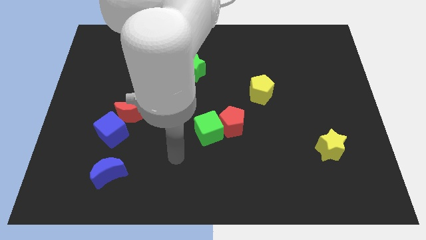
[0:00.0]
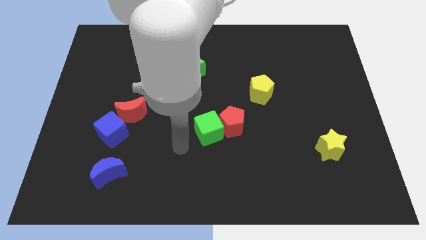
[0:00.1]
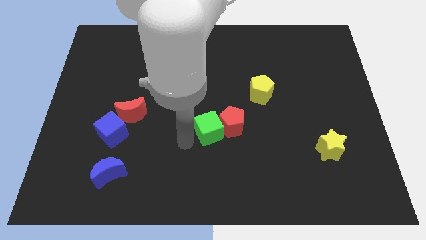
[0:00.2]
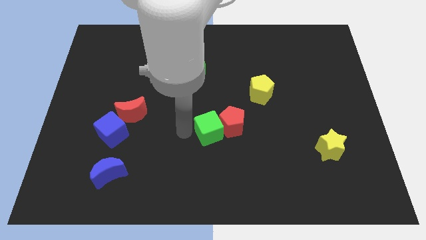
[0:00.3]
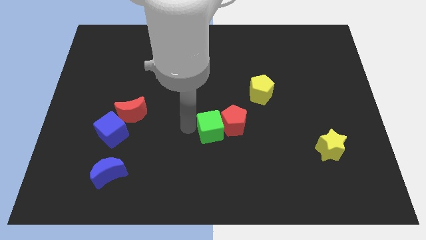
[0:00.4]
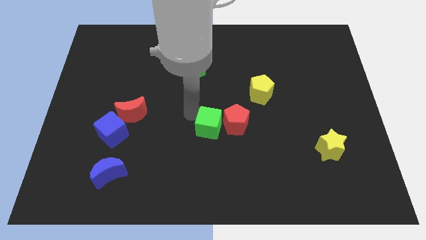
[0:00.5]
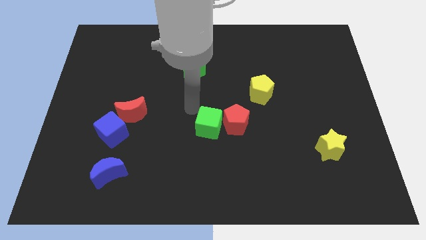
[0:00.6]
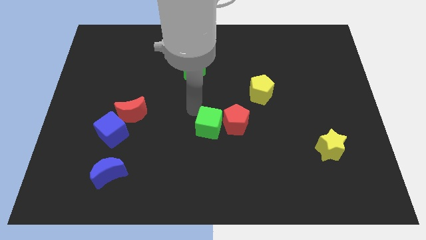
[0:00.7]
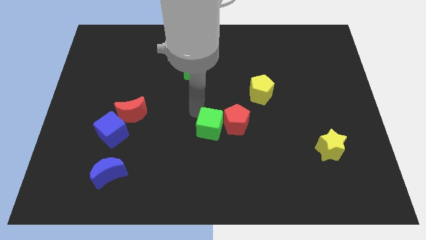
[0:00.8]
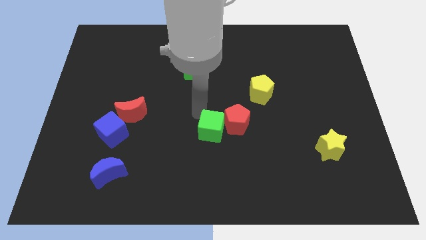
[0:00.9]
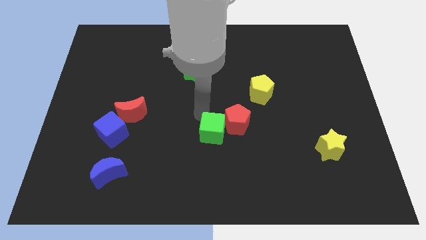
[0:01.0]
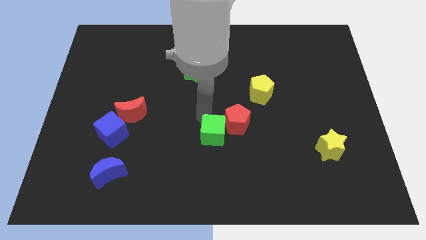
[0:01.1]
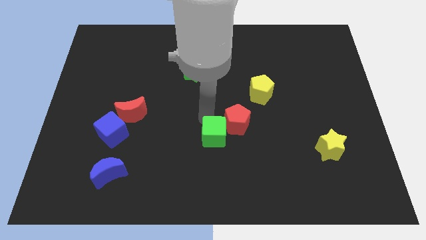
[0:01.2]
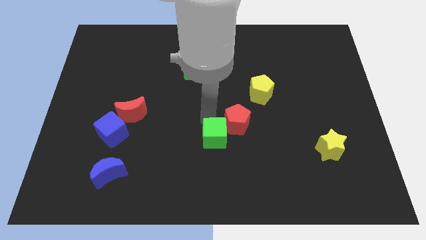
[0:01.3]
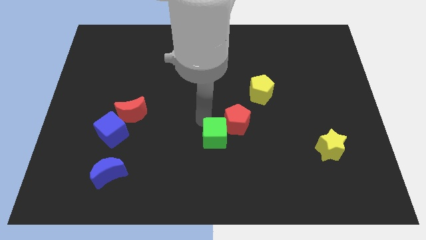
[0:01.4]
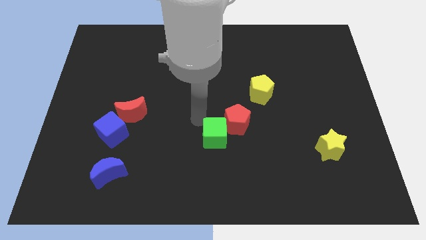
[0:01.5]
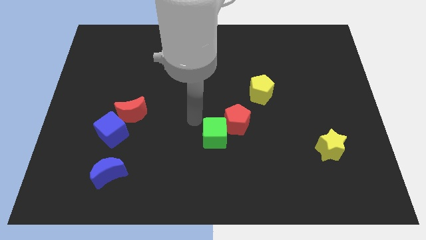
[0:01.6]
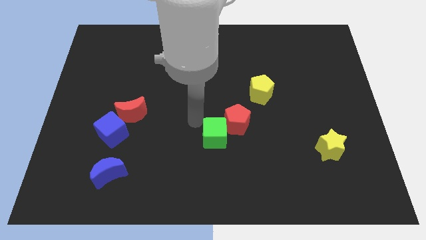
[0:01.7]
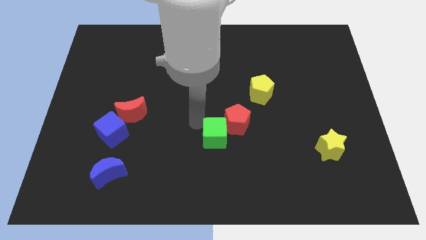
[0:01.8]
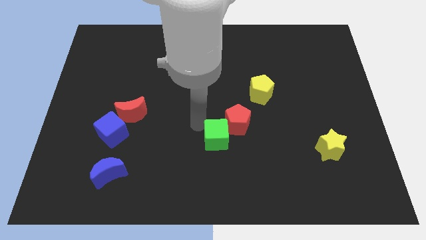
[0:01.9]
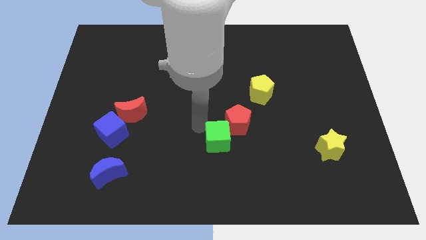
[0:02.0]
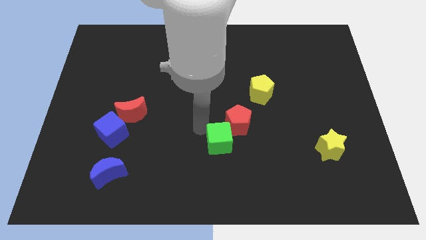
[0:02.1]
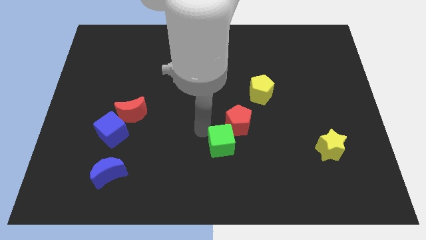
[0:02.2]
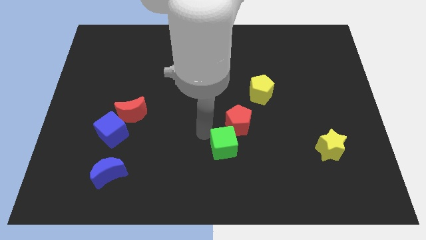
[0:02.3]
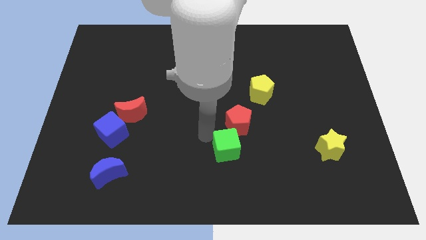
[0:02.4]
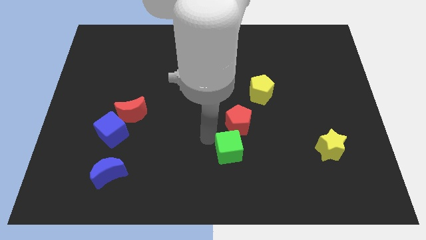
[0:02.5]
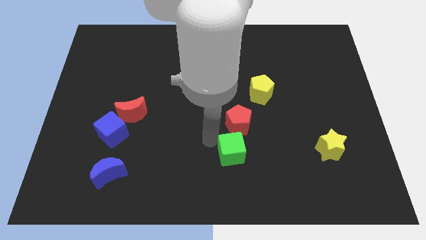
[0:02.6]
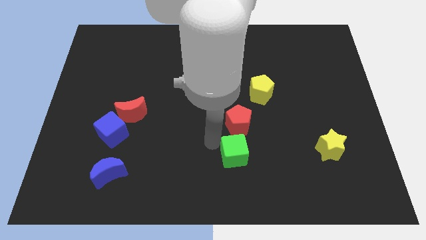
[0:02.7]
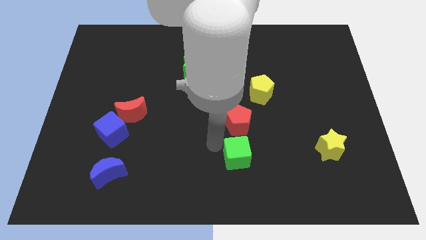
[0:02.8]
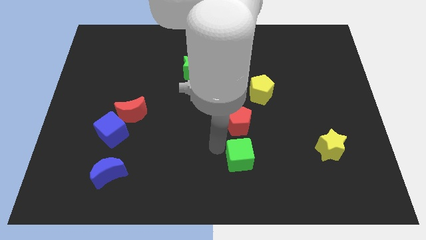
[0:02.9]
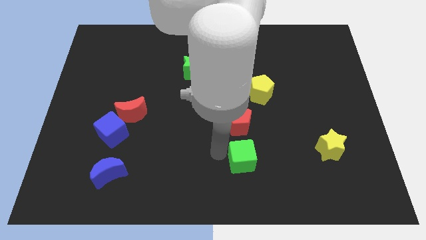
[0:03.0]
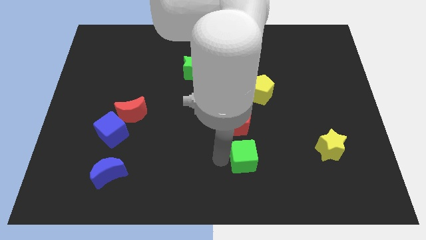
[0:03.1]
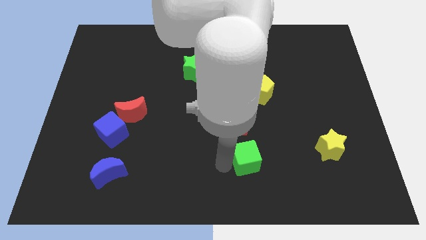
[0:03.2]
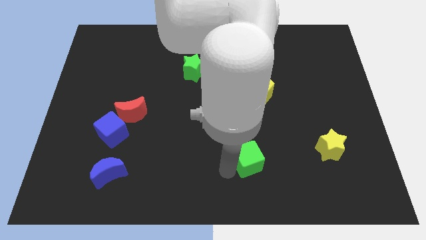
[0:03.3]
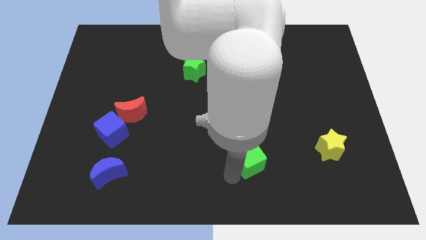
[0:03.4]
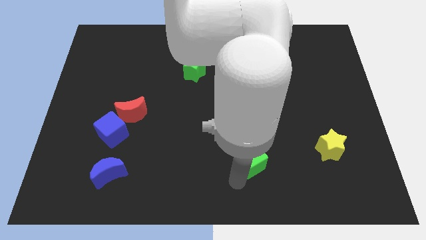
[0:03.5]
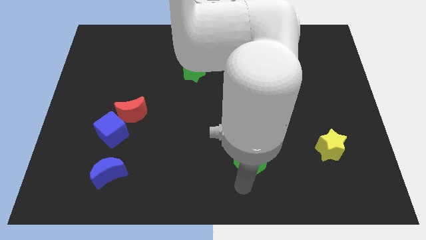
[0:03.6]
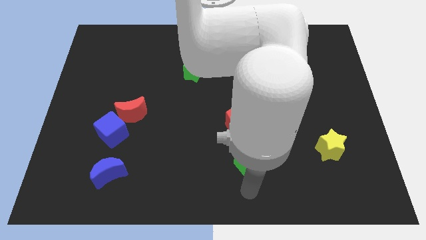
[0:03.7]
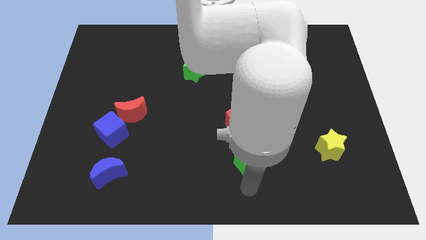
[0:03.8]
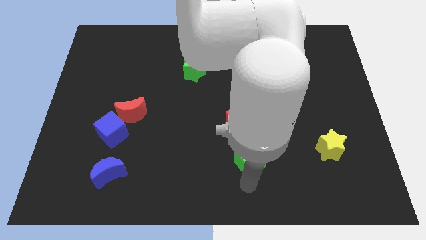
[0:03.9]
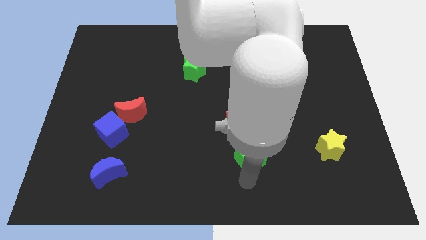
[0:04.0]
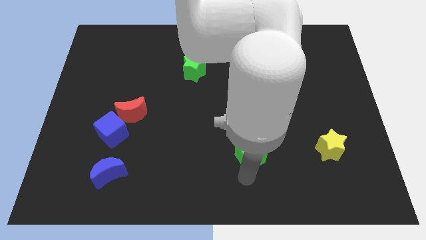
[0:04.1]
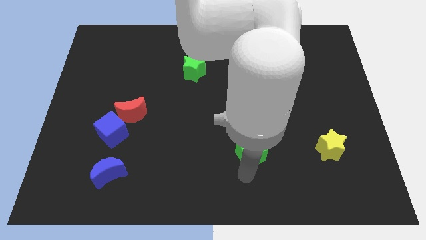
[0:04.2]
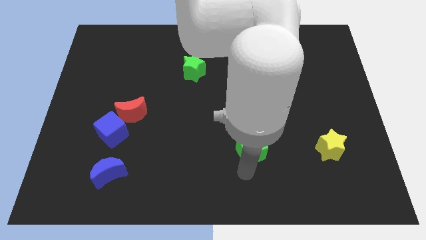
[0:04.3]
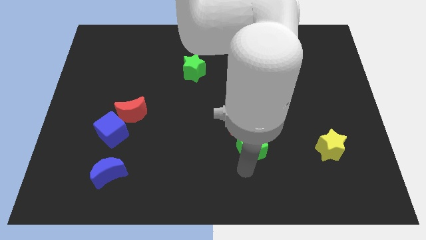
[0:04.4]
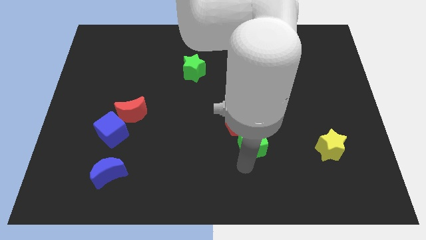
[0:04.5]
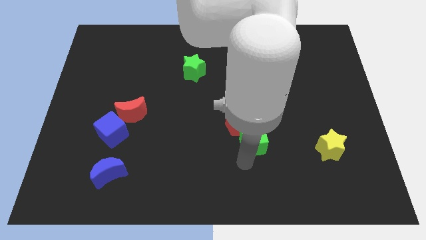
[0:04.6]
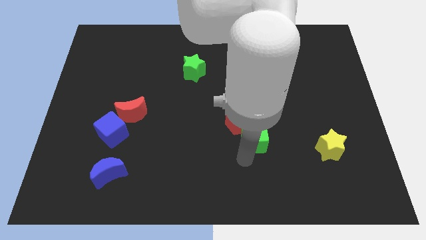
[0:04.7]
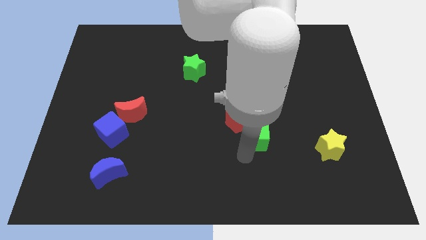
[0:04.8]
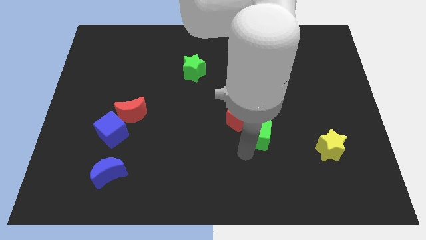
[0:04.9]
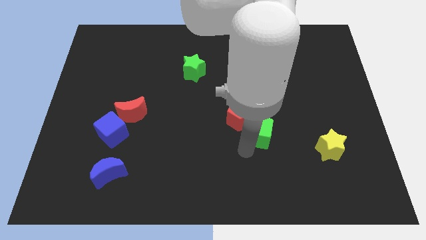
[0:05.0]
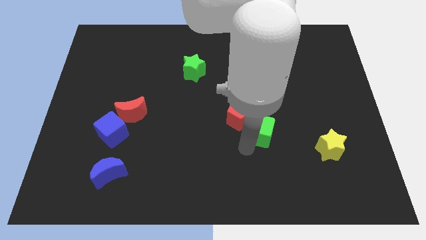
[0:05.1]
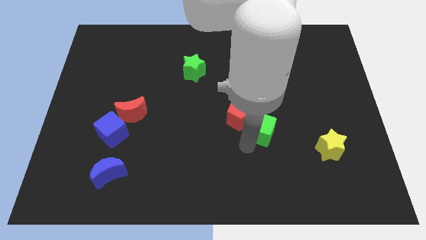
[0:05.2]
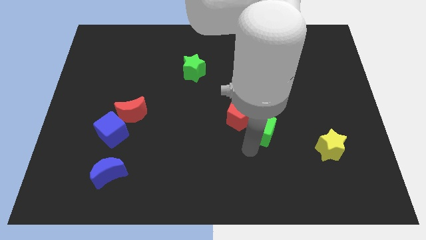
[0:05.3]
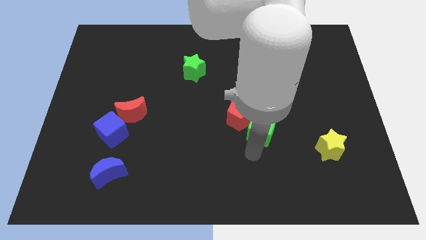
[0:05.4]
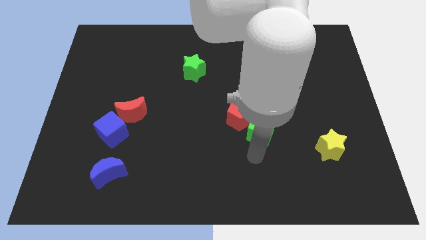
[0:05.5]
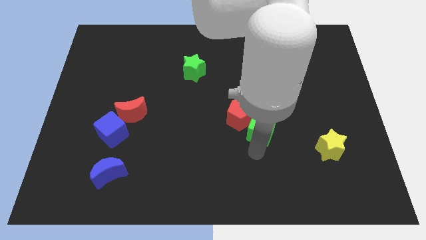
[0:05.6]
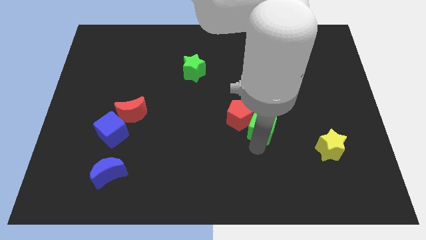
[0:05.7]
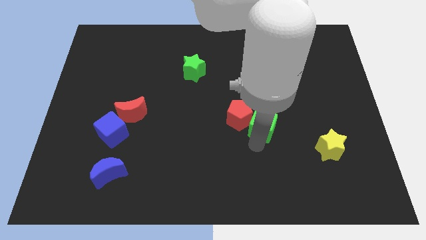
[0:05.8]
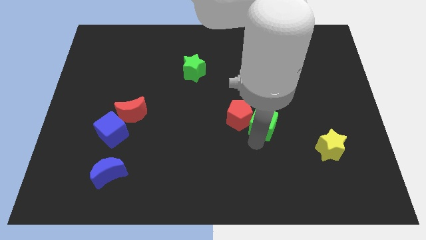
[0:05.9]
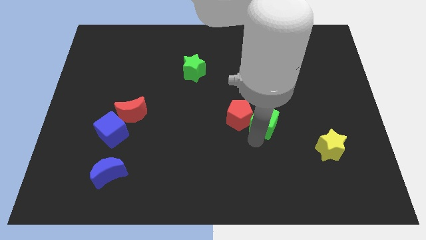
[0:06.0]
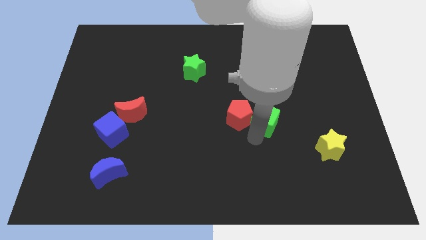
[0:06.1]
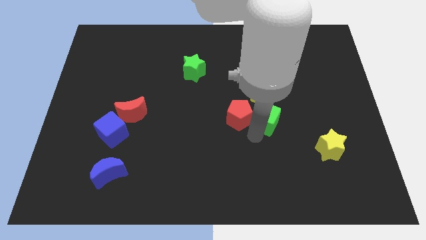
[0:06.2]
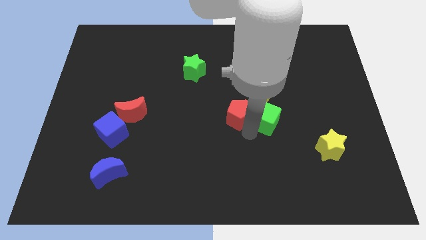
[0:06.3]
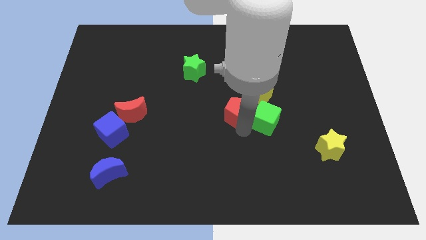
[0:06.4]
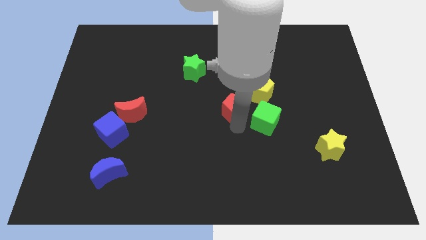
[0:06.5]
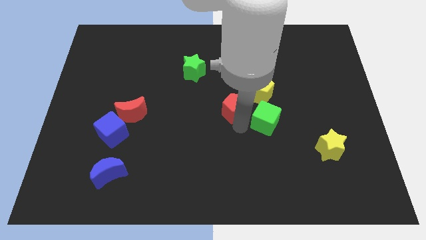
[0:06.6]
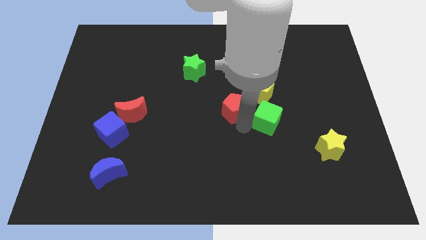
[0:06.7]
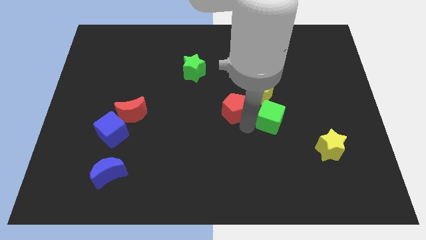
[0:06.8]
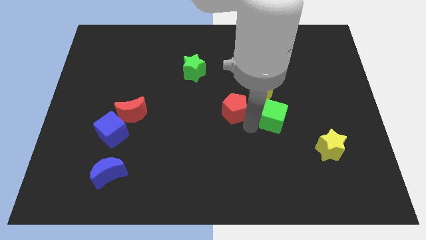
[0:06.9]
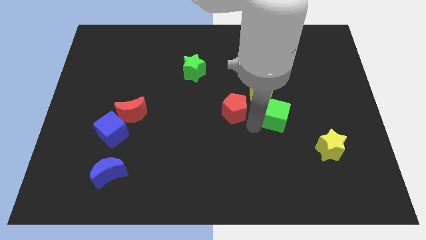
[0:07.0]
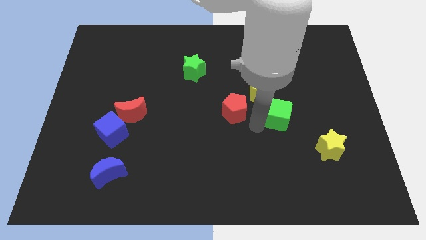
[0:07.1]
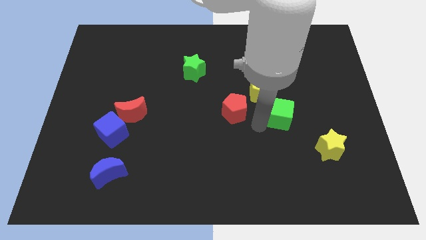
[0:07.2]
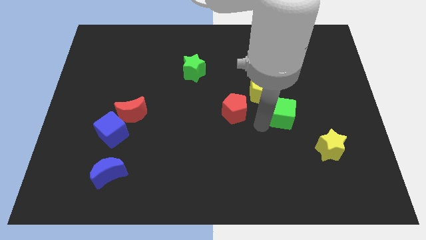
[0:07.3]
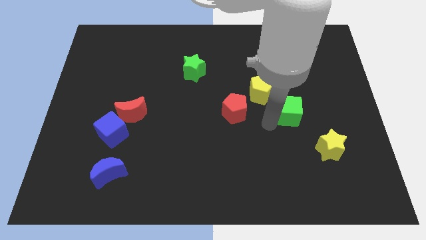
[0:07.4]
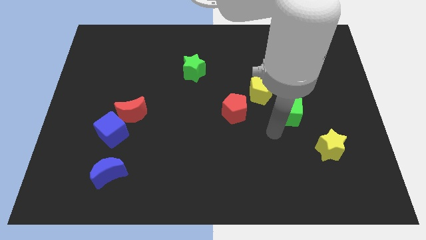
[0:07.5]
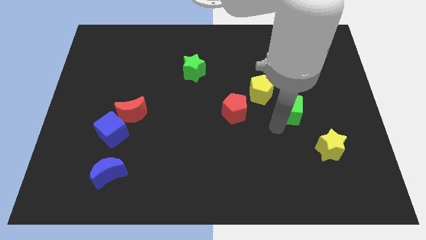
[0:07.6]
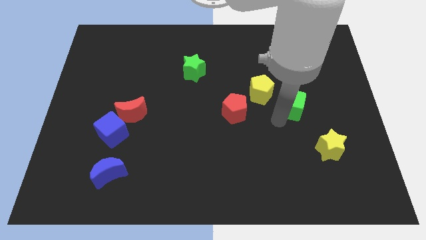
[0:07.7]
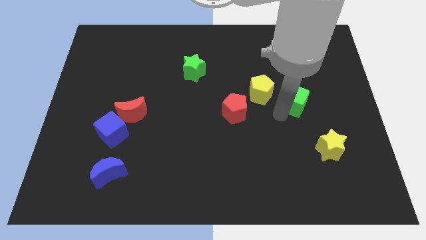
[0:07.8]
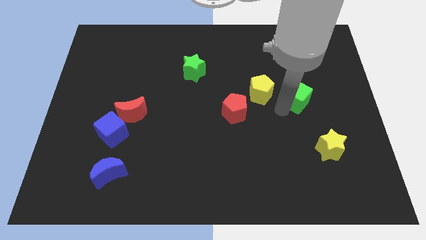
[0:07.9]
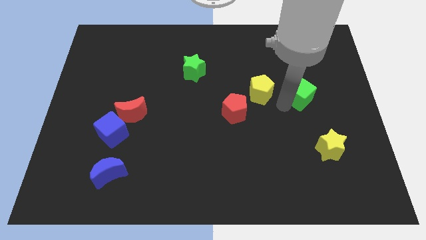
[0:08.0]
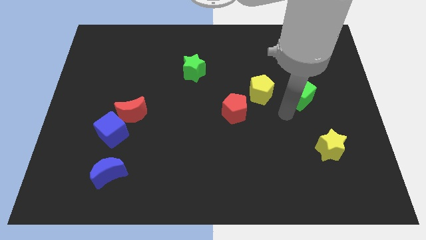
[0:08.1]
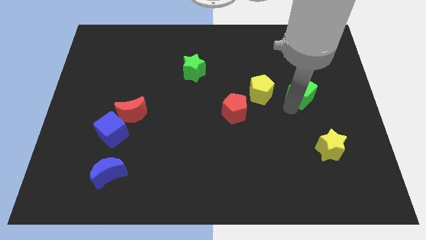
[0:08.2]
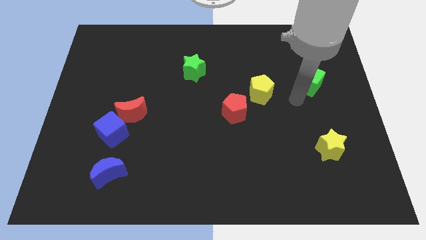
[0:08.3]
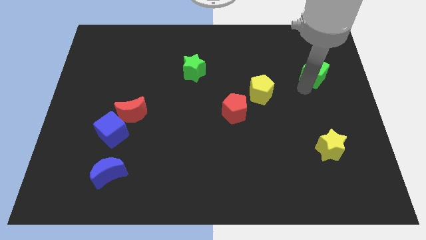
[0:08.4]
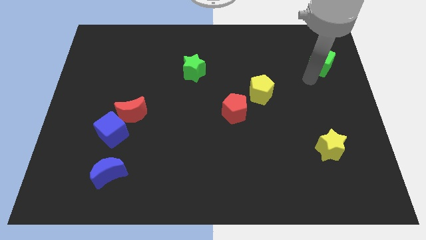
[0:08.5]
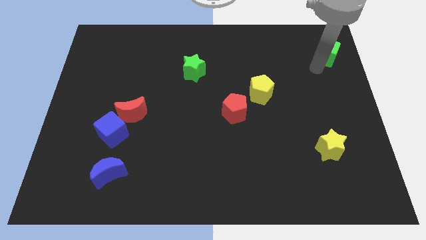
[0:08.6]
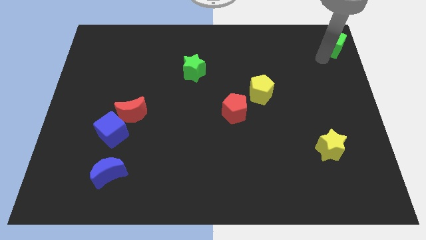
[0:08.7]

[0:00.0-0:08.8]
put the green cube to the upper right corner
